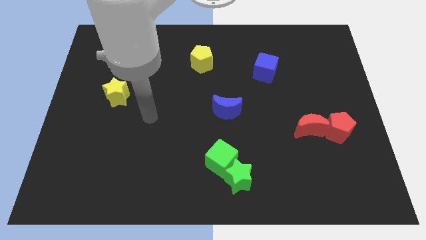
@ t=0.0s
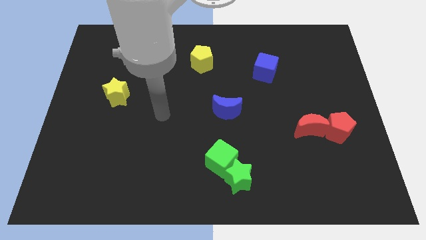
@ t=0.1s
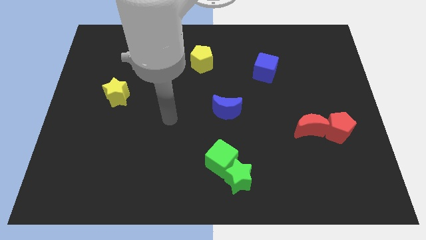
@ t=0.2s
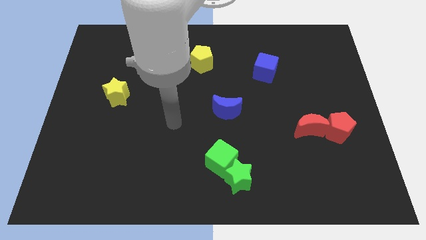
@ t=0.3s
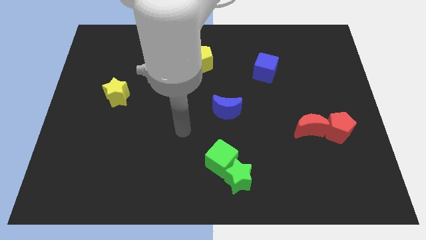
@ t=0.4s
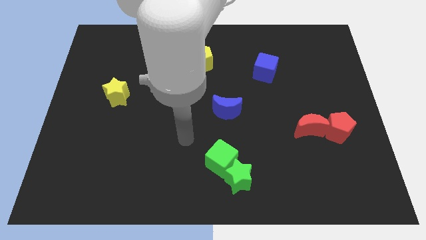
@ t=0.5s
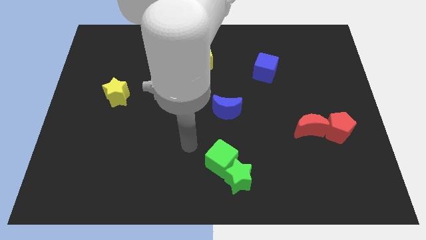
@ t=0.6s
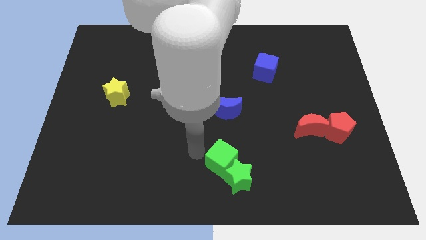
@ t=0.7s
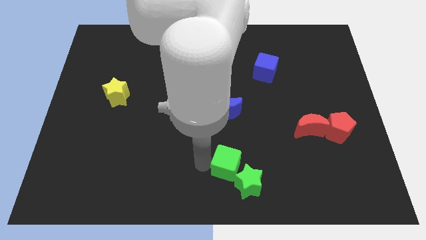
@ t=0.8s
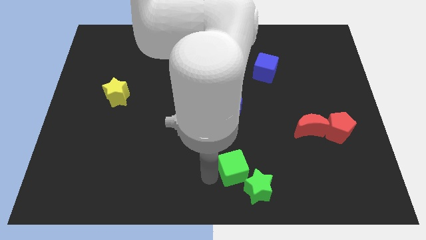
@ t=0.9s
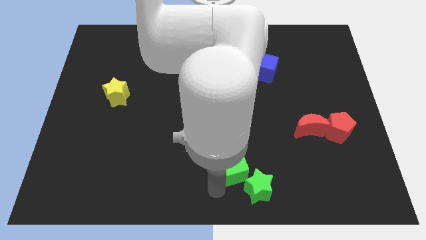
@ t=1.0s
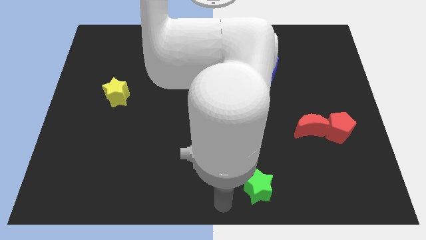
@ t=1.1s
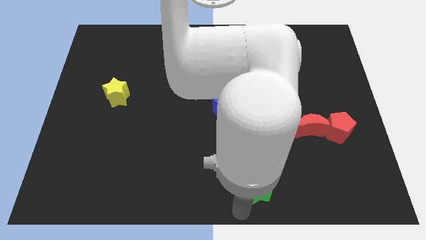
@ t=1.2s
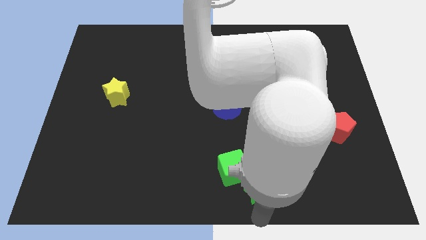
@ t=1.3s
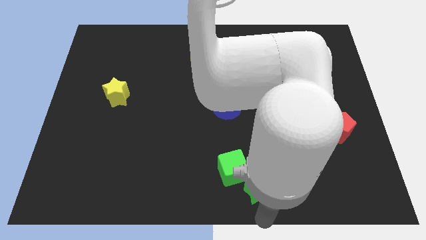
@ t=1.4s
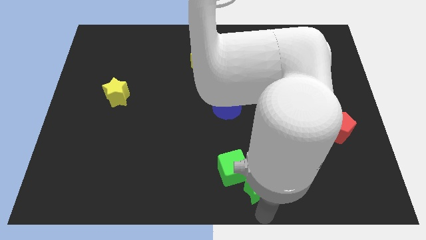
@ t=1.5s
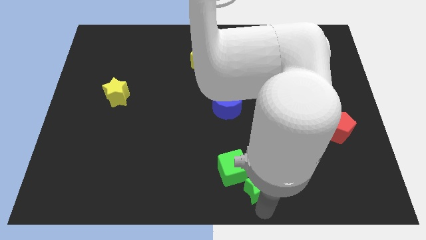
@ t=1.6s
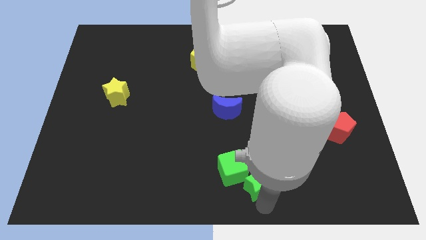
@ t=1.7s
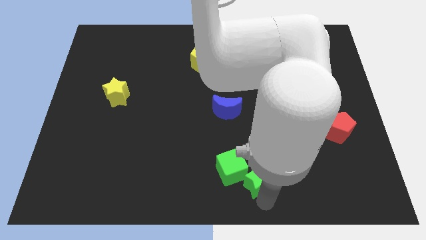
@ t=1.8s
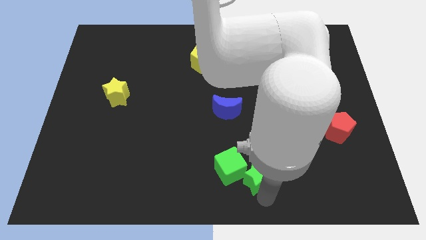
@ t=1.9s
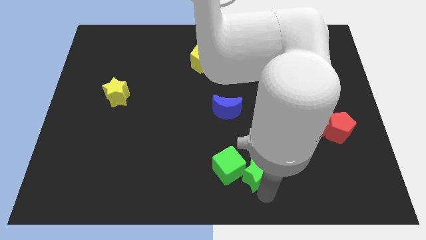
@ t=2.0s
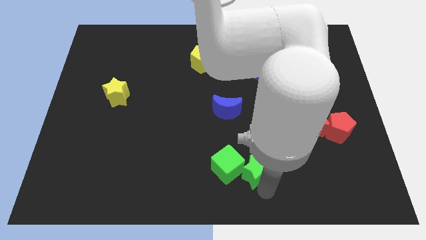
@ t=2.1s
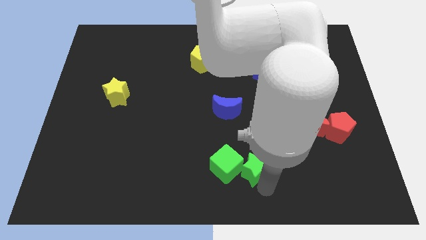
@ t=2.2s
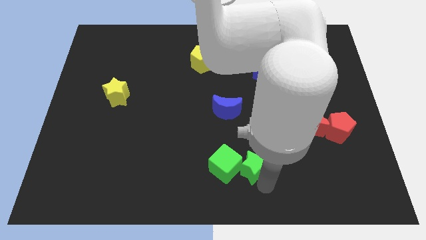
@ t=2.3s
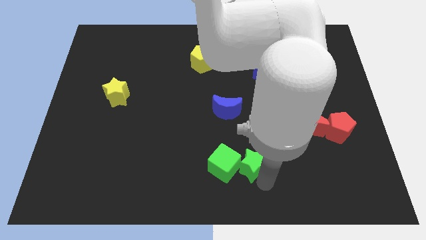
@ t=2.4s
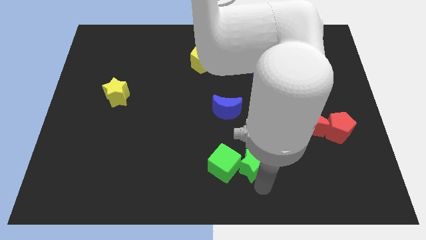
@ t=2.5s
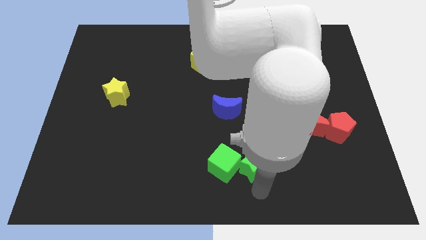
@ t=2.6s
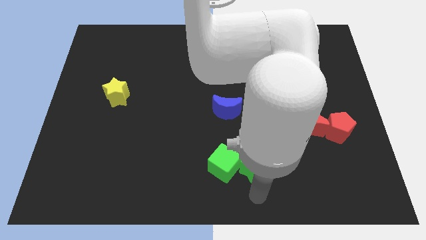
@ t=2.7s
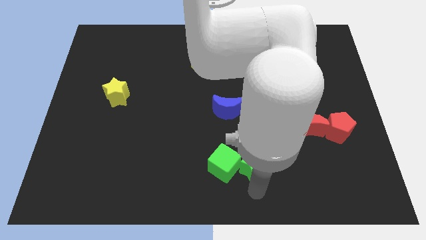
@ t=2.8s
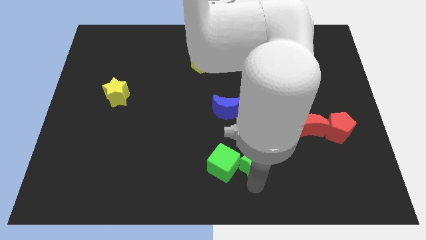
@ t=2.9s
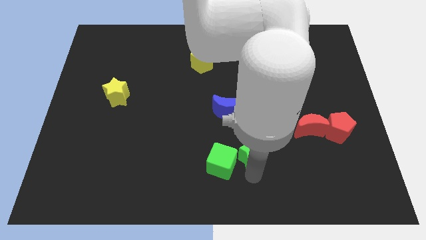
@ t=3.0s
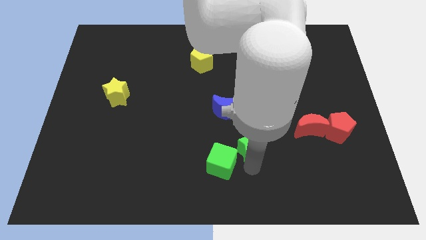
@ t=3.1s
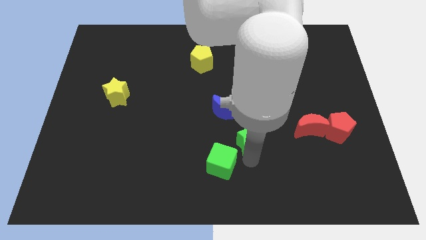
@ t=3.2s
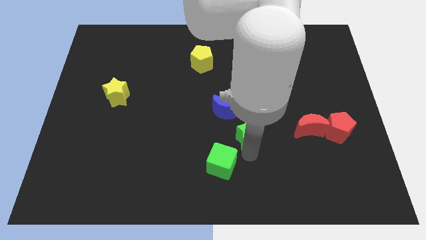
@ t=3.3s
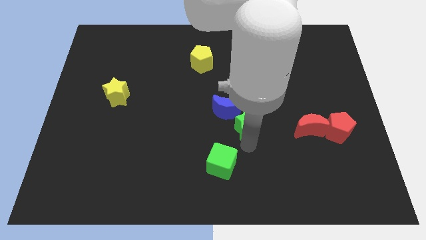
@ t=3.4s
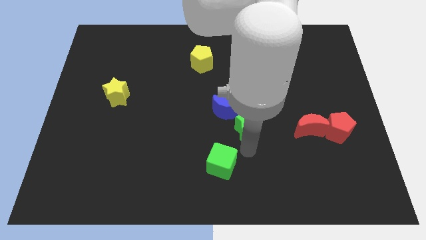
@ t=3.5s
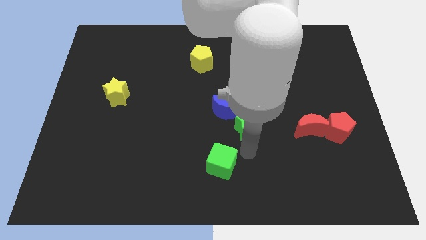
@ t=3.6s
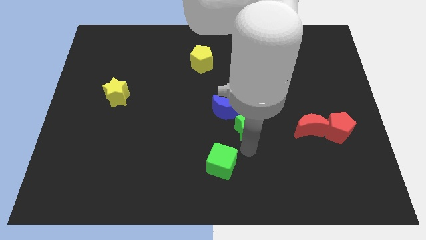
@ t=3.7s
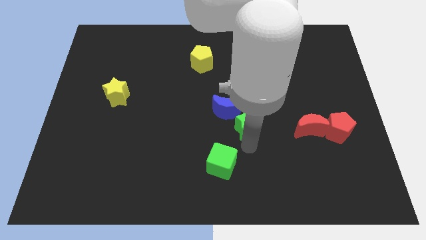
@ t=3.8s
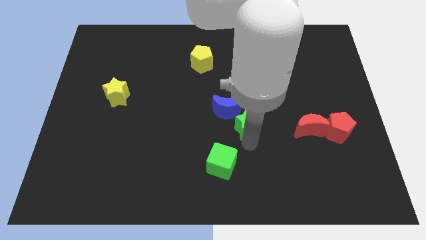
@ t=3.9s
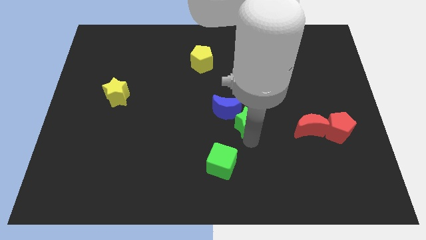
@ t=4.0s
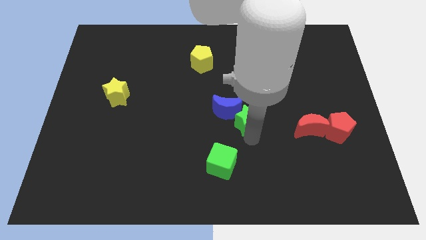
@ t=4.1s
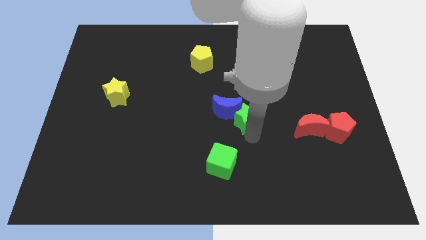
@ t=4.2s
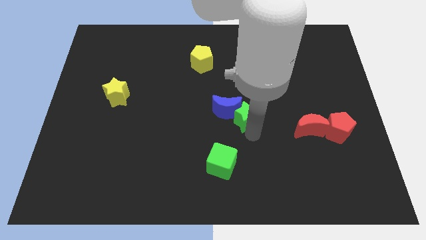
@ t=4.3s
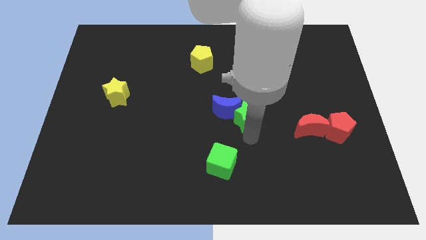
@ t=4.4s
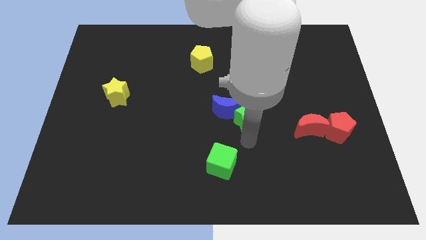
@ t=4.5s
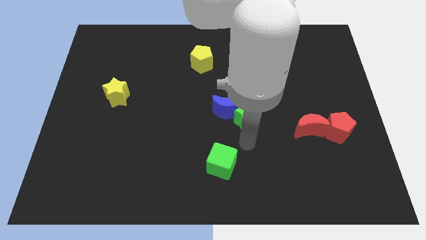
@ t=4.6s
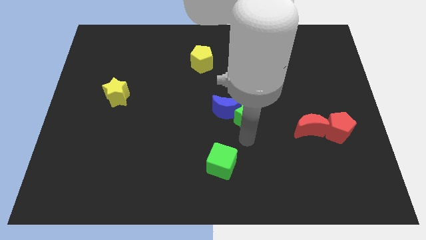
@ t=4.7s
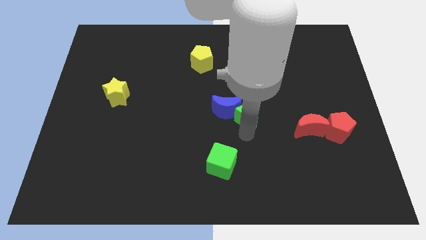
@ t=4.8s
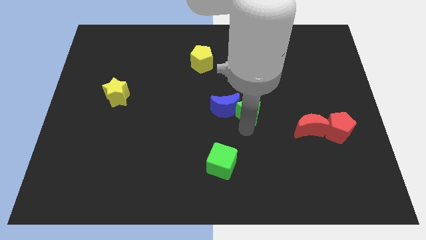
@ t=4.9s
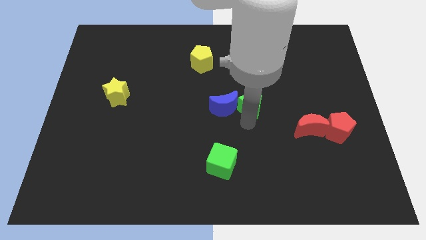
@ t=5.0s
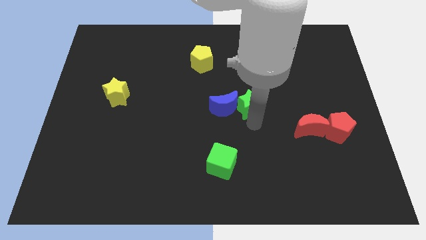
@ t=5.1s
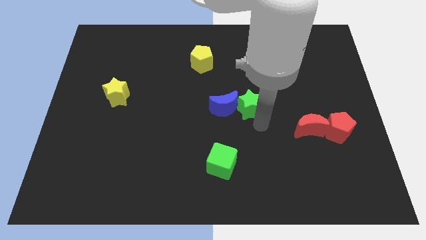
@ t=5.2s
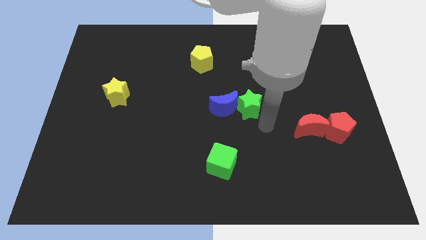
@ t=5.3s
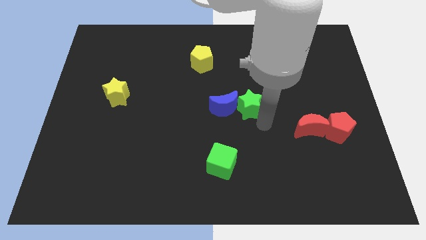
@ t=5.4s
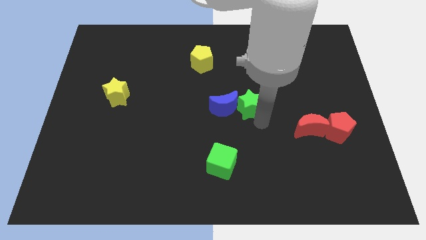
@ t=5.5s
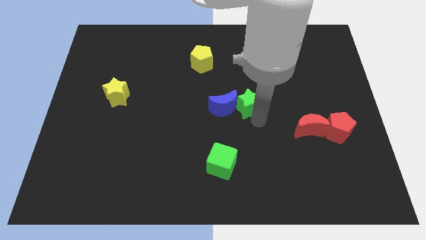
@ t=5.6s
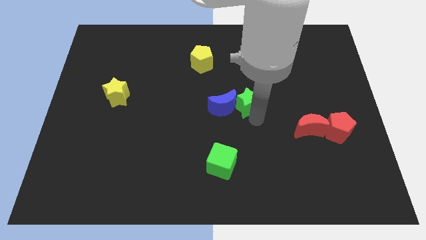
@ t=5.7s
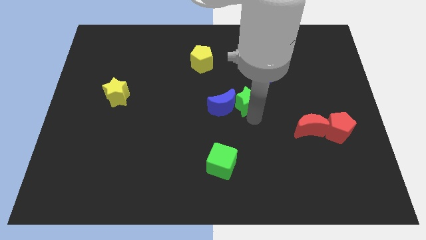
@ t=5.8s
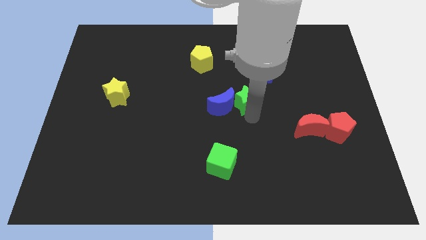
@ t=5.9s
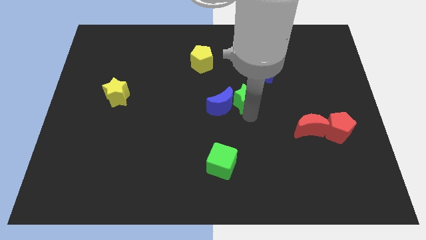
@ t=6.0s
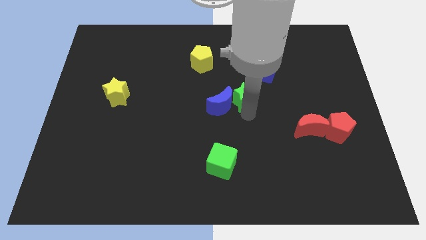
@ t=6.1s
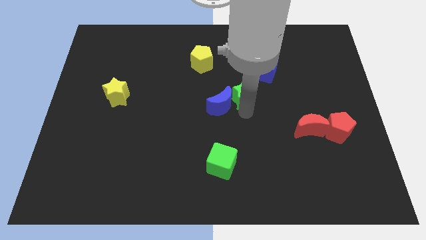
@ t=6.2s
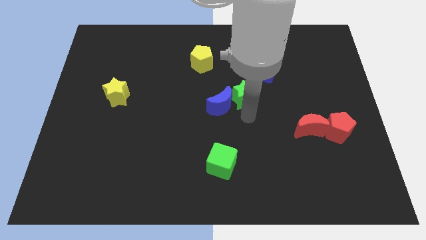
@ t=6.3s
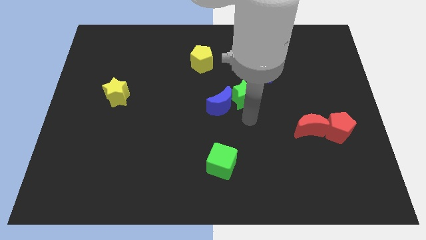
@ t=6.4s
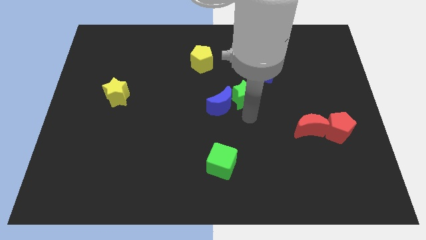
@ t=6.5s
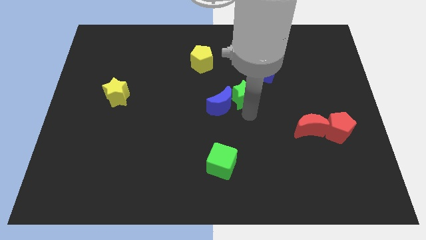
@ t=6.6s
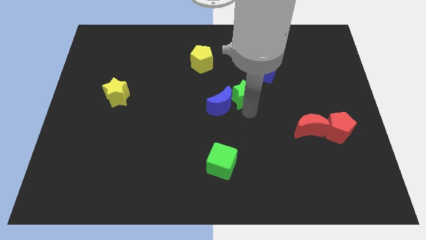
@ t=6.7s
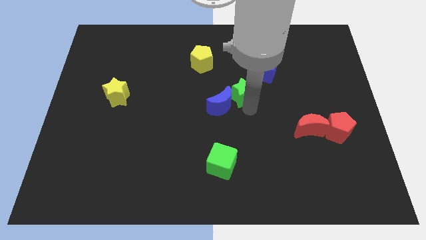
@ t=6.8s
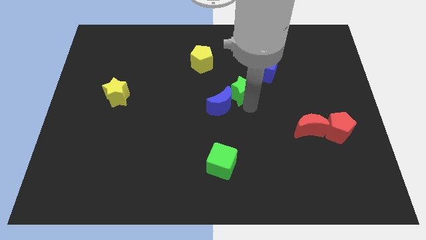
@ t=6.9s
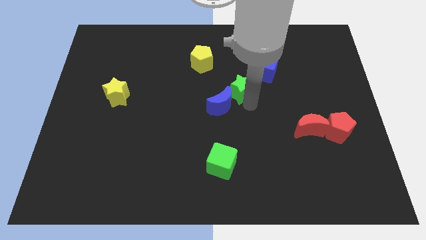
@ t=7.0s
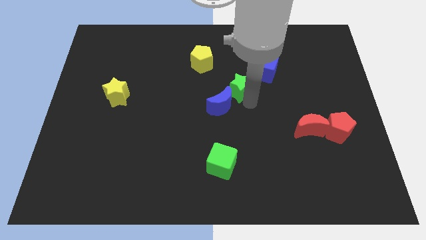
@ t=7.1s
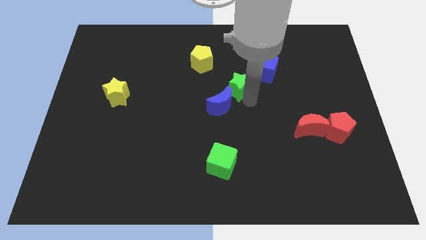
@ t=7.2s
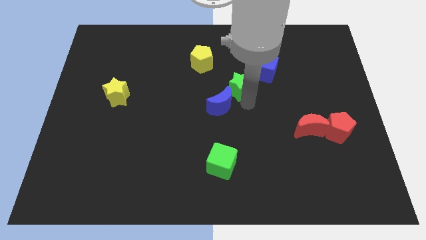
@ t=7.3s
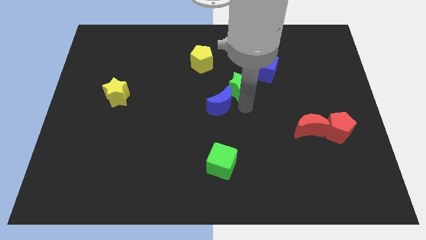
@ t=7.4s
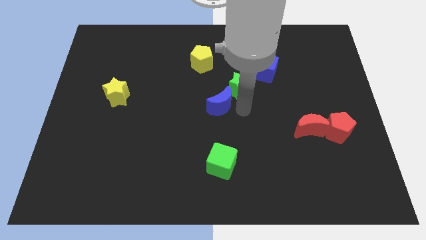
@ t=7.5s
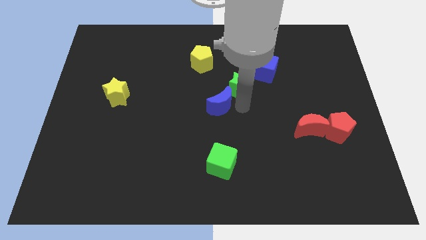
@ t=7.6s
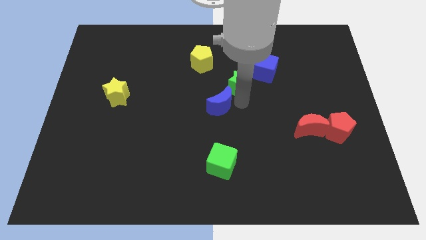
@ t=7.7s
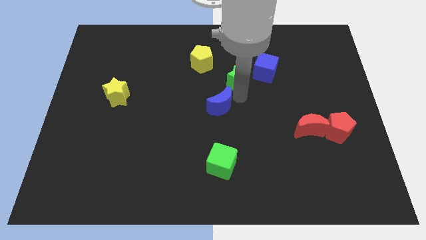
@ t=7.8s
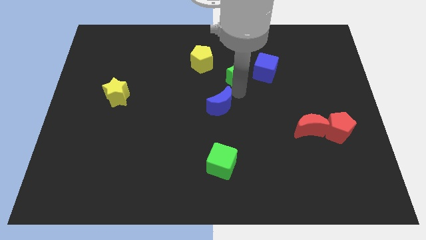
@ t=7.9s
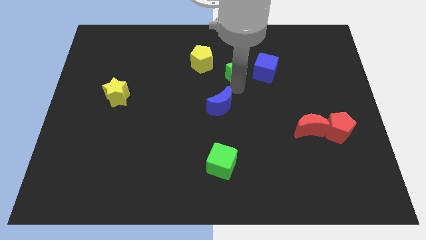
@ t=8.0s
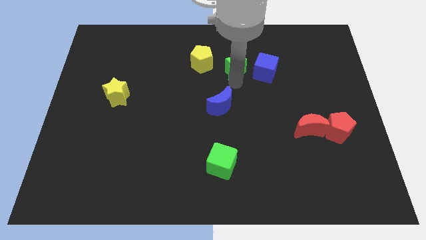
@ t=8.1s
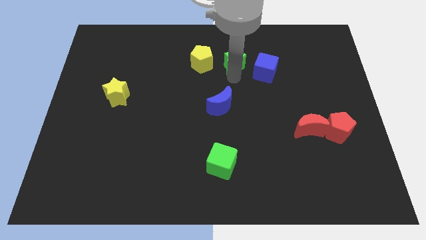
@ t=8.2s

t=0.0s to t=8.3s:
push the green star to the top left side of the blue cube
